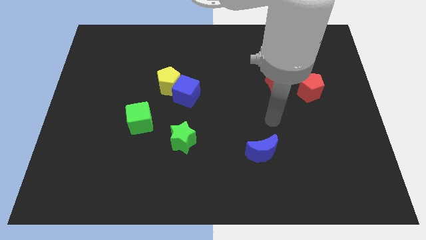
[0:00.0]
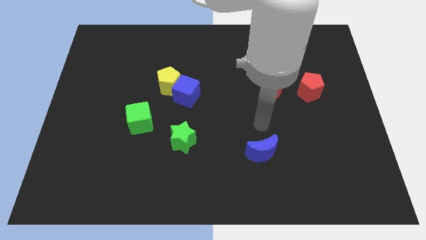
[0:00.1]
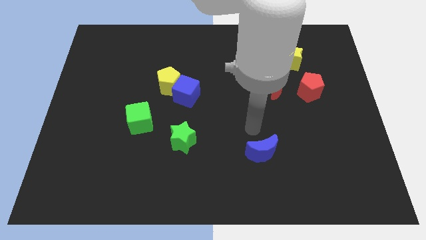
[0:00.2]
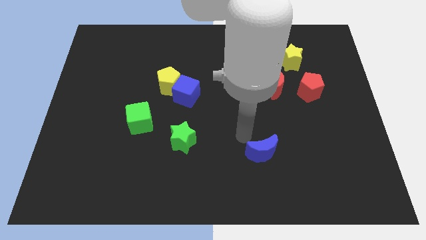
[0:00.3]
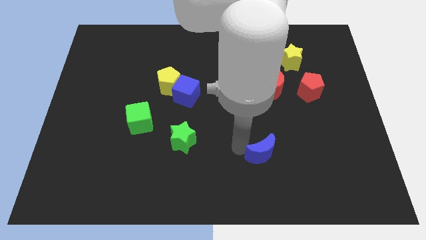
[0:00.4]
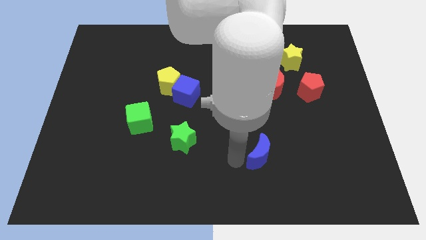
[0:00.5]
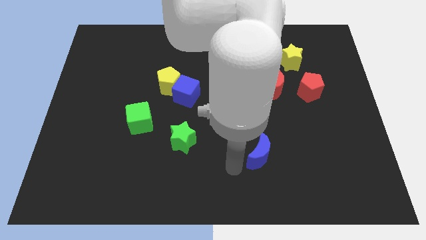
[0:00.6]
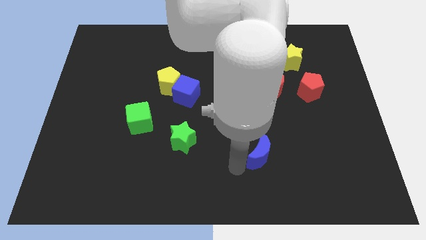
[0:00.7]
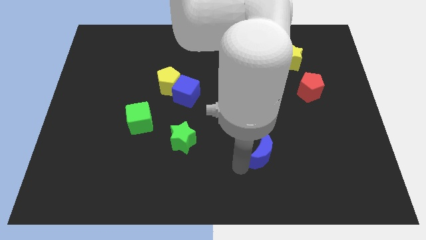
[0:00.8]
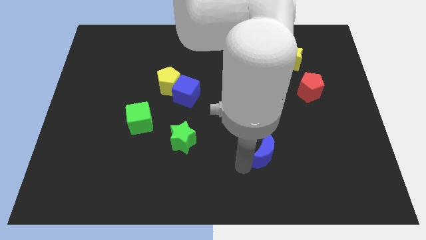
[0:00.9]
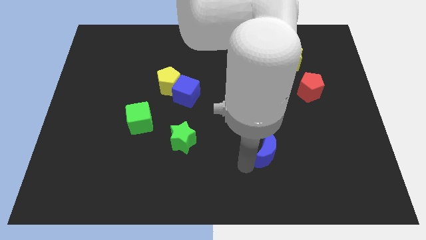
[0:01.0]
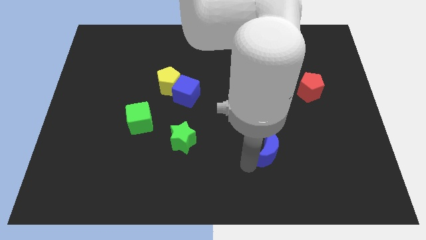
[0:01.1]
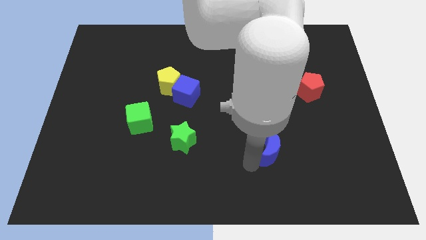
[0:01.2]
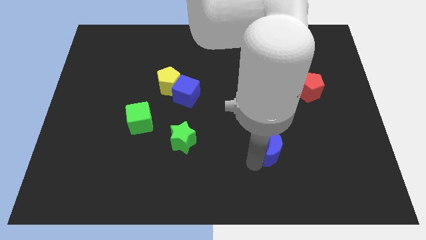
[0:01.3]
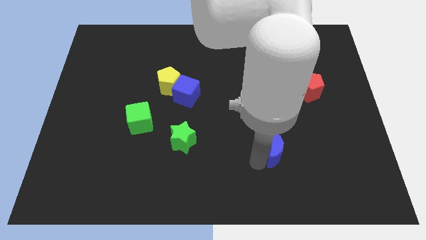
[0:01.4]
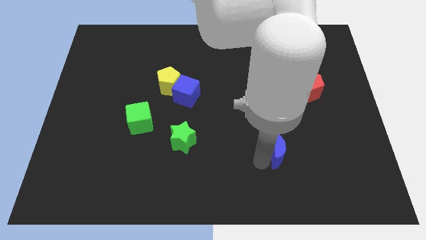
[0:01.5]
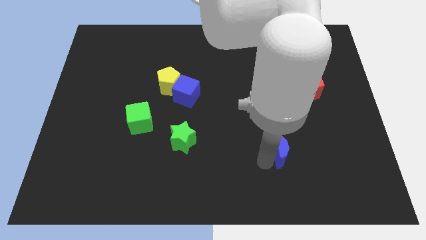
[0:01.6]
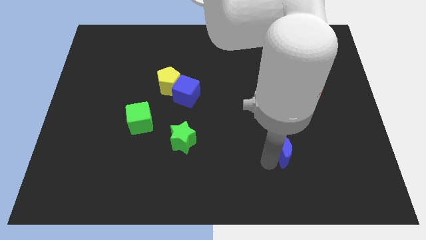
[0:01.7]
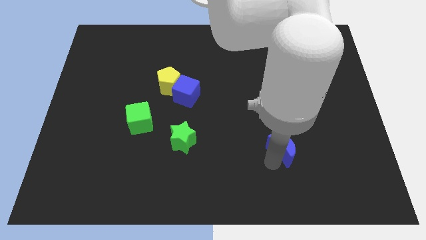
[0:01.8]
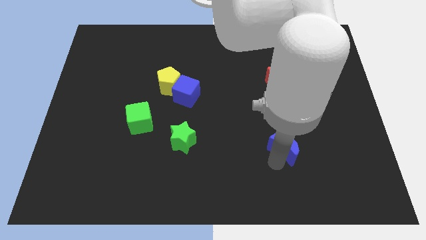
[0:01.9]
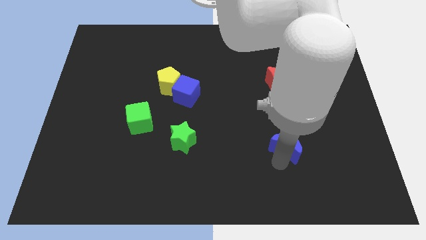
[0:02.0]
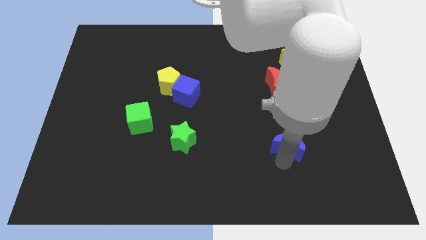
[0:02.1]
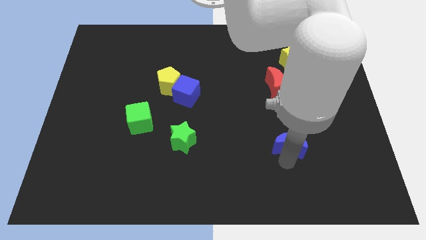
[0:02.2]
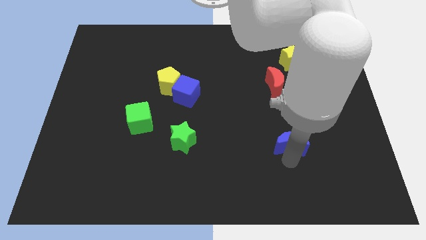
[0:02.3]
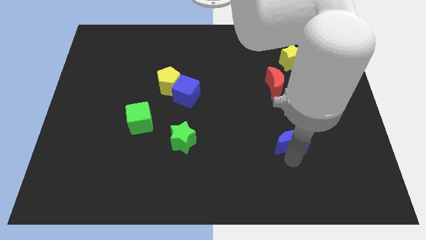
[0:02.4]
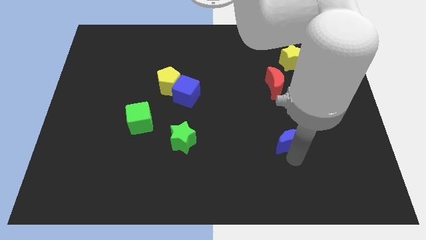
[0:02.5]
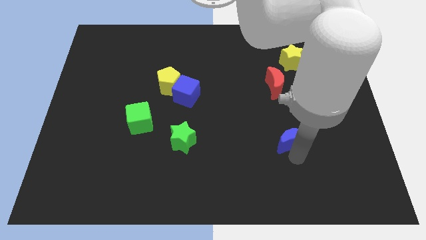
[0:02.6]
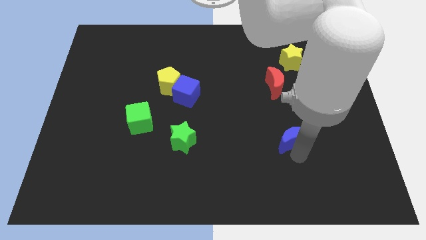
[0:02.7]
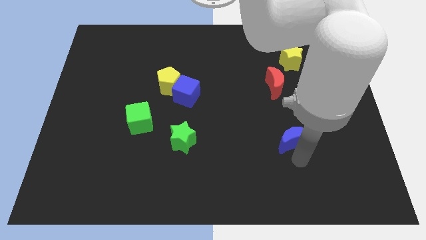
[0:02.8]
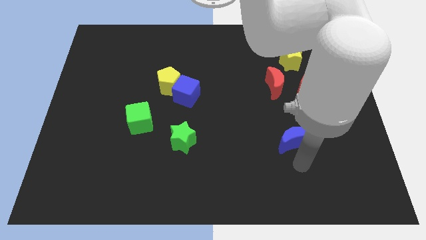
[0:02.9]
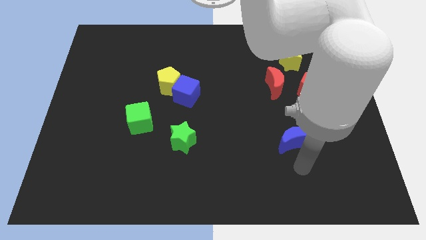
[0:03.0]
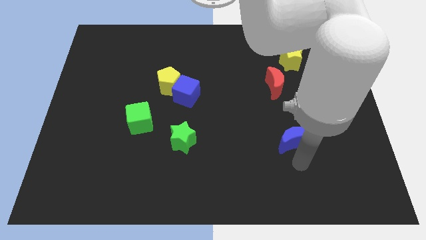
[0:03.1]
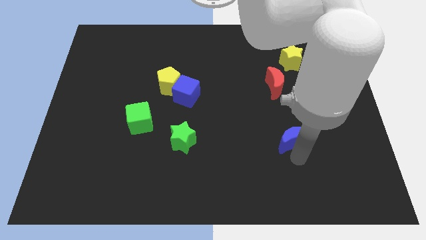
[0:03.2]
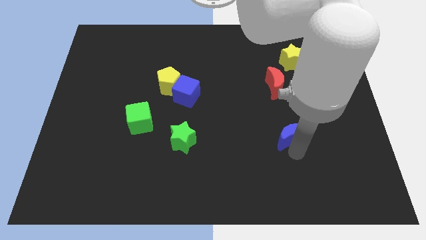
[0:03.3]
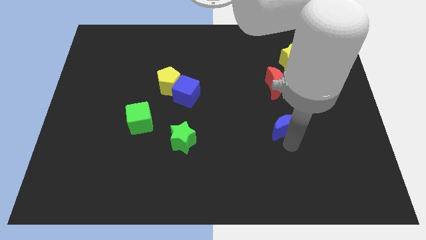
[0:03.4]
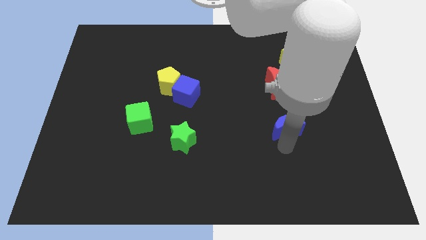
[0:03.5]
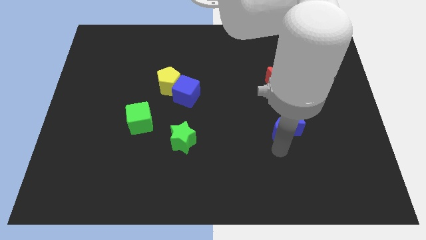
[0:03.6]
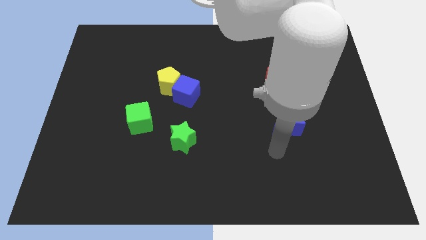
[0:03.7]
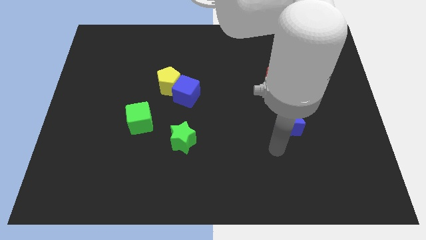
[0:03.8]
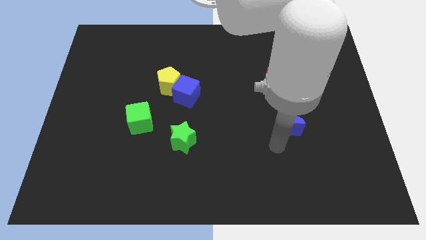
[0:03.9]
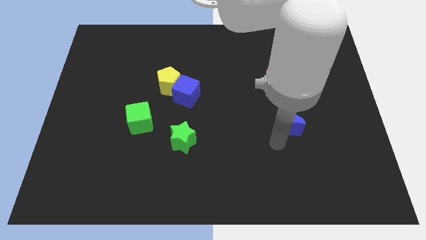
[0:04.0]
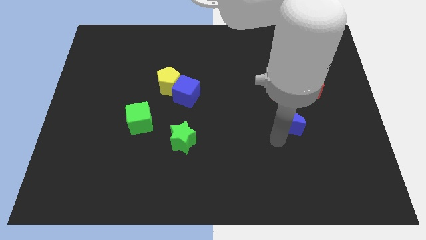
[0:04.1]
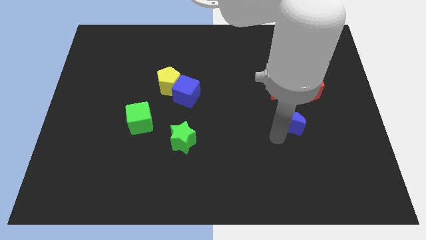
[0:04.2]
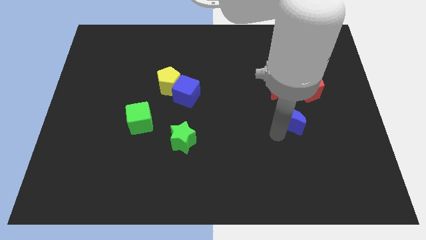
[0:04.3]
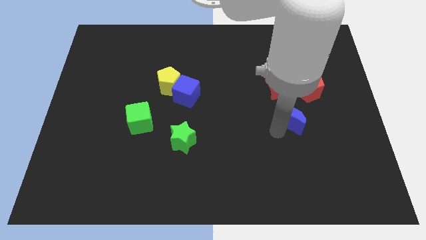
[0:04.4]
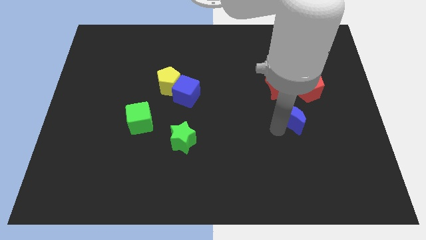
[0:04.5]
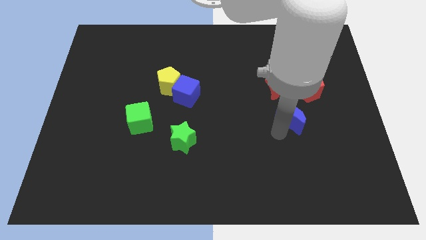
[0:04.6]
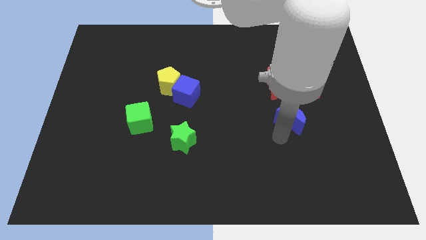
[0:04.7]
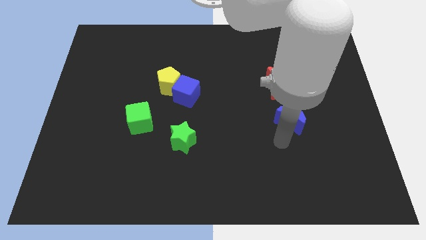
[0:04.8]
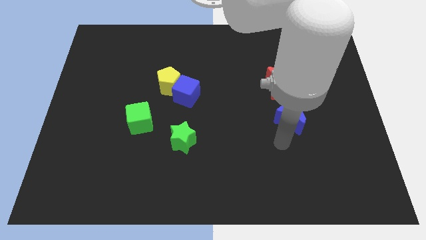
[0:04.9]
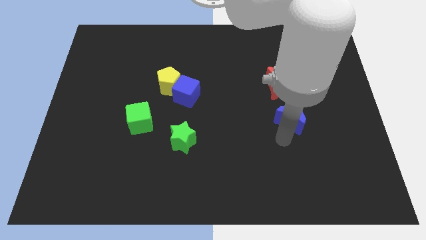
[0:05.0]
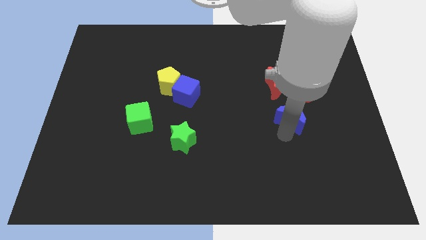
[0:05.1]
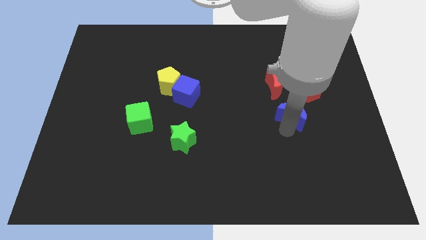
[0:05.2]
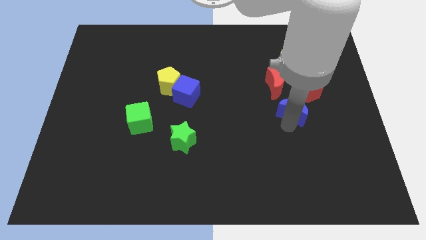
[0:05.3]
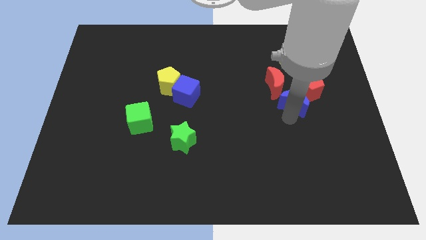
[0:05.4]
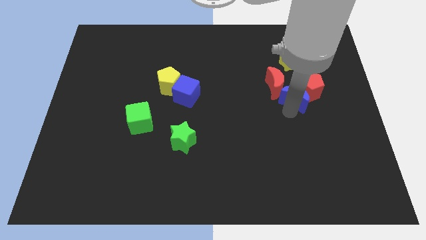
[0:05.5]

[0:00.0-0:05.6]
push the blue moon next to the red pentagon

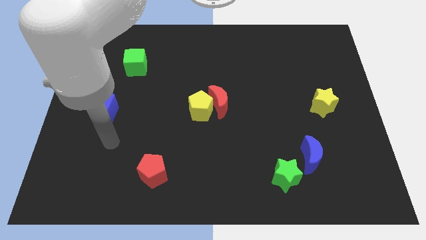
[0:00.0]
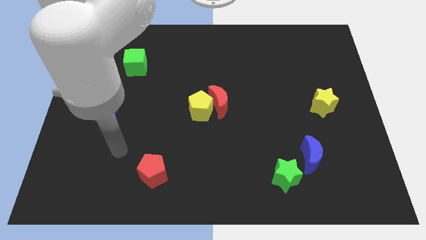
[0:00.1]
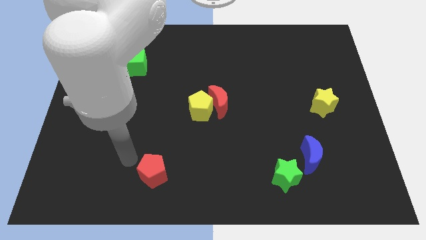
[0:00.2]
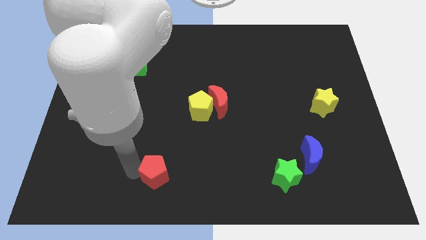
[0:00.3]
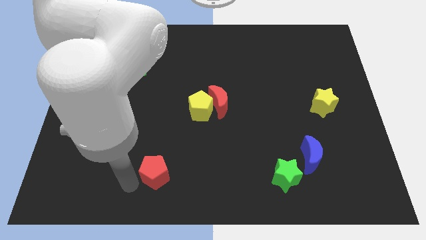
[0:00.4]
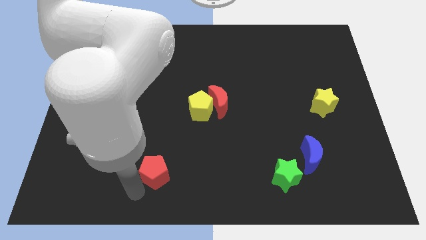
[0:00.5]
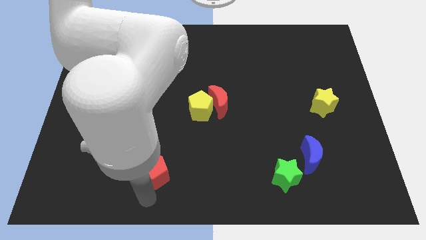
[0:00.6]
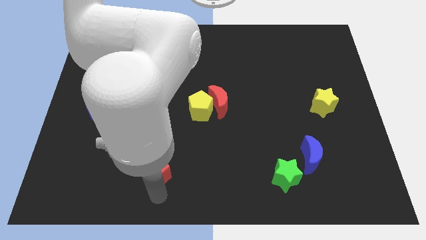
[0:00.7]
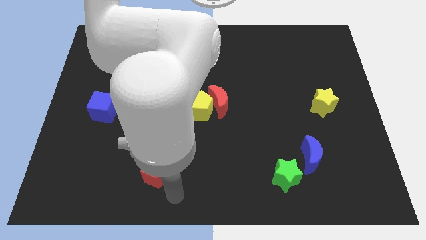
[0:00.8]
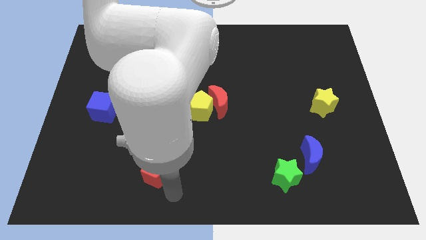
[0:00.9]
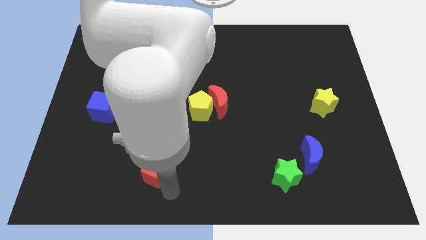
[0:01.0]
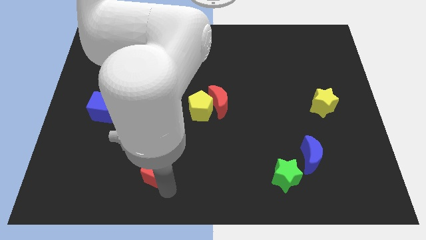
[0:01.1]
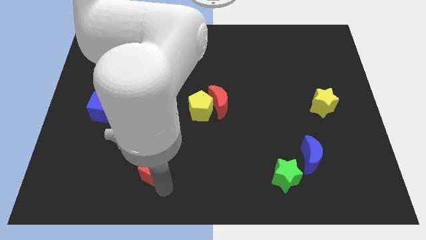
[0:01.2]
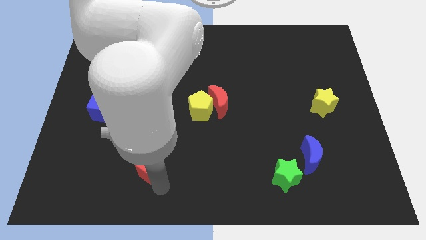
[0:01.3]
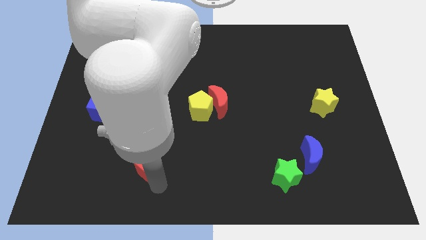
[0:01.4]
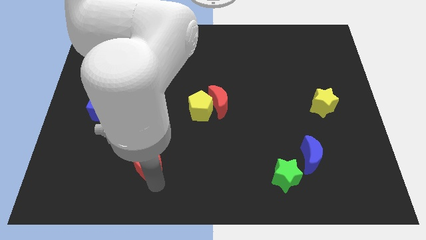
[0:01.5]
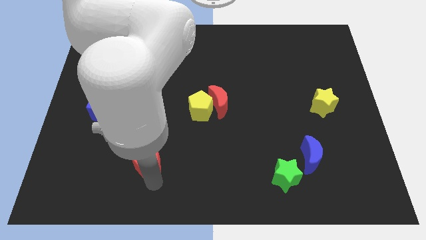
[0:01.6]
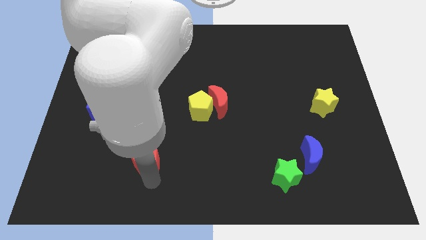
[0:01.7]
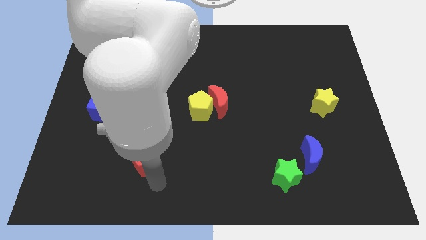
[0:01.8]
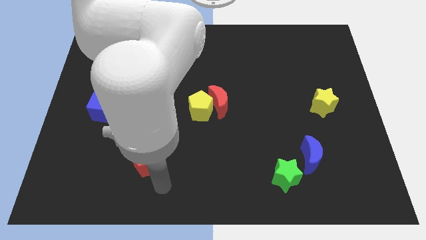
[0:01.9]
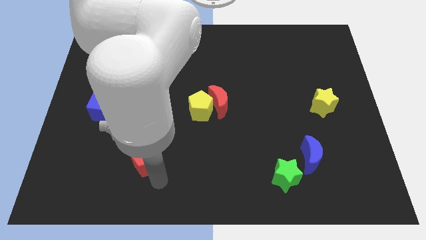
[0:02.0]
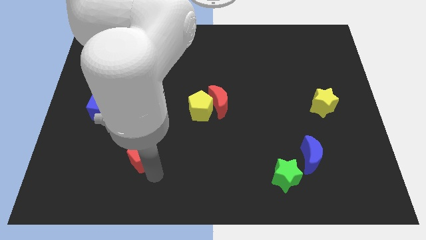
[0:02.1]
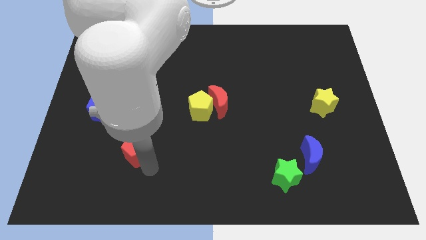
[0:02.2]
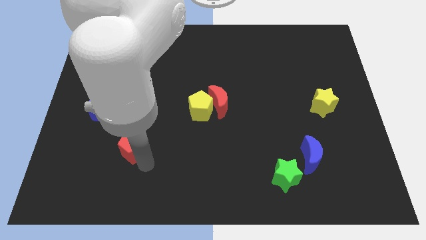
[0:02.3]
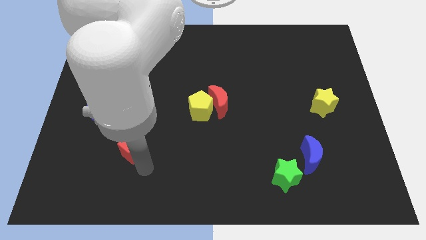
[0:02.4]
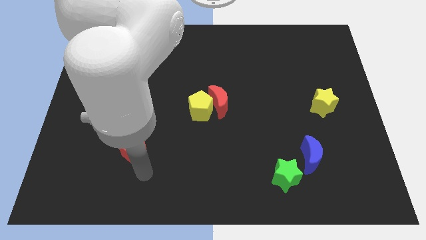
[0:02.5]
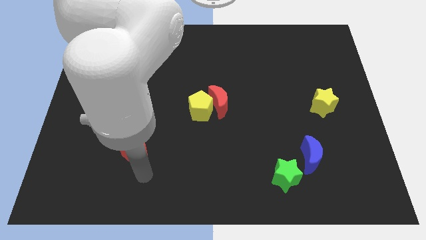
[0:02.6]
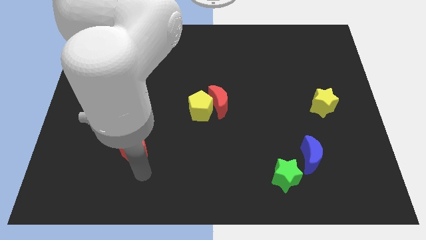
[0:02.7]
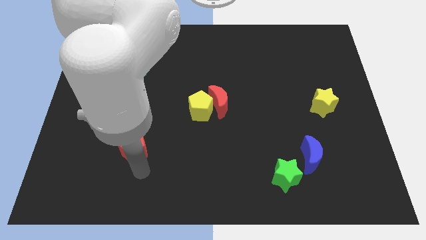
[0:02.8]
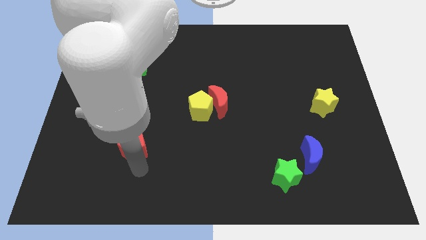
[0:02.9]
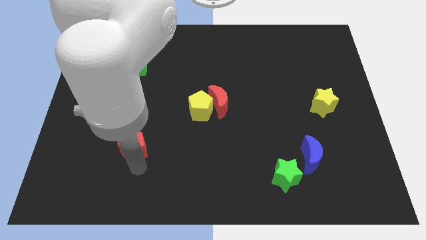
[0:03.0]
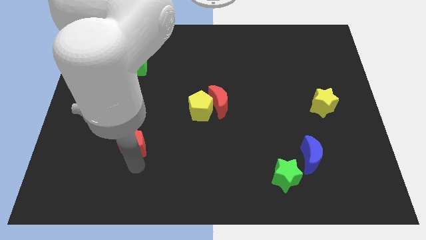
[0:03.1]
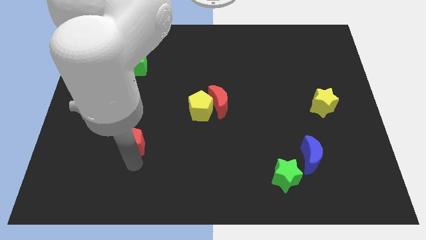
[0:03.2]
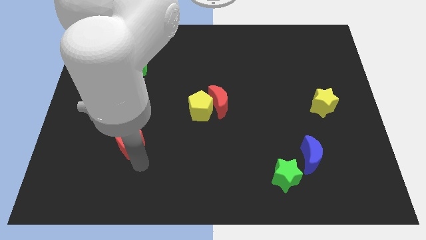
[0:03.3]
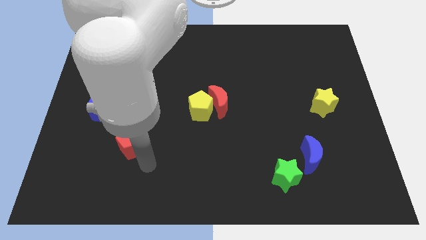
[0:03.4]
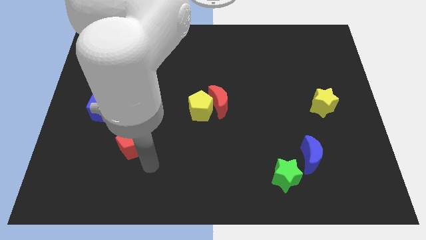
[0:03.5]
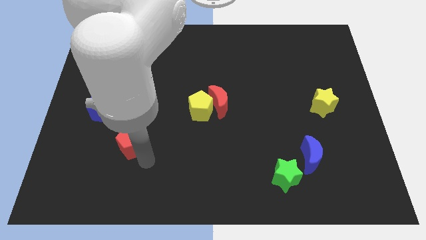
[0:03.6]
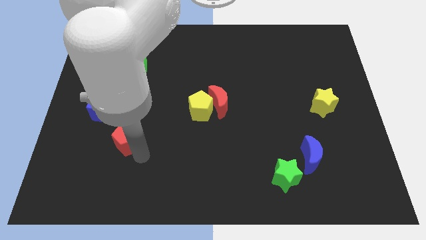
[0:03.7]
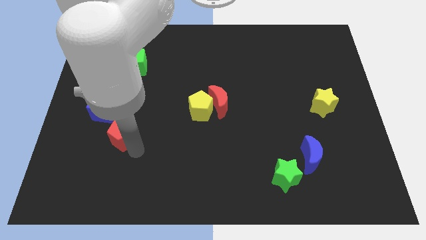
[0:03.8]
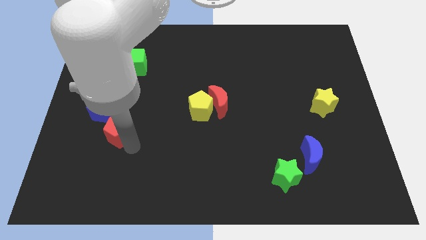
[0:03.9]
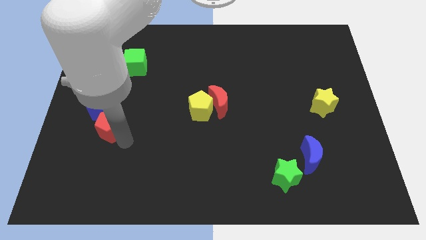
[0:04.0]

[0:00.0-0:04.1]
slide the red pentagon close to the blue cube
